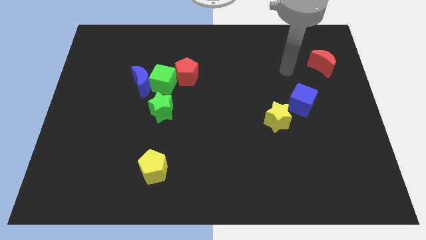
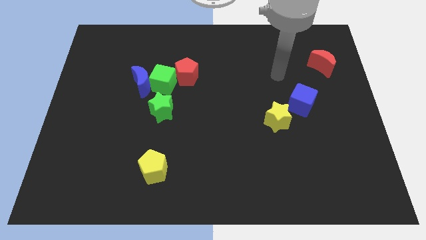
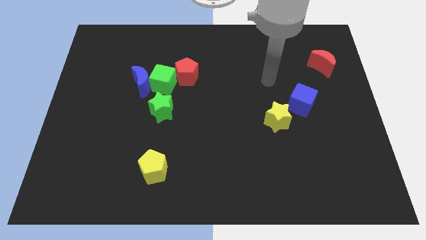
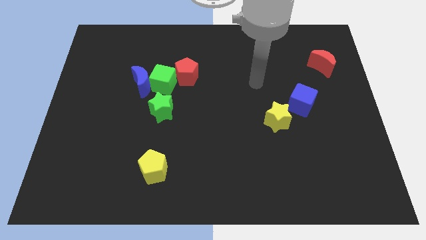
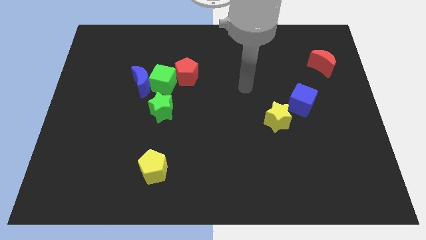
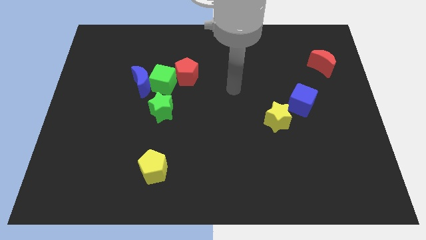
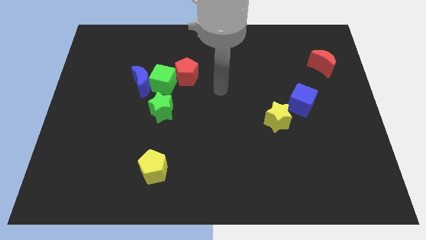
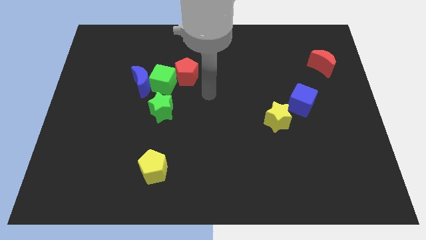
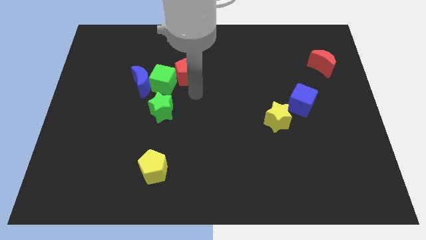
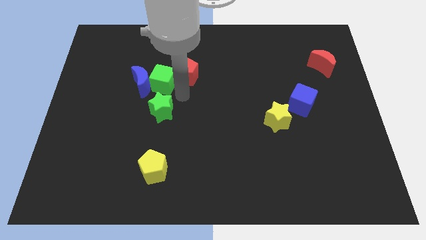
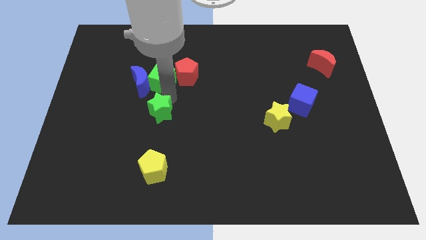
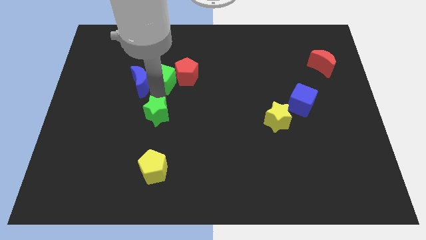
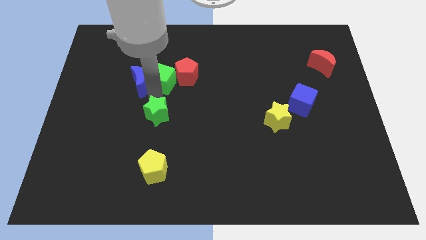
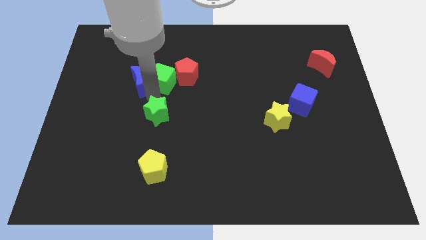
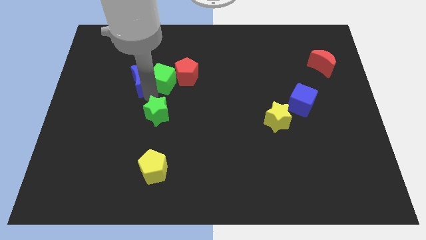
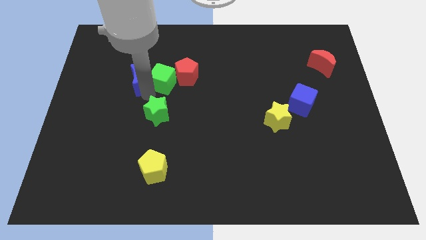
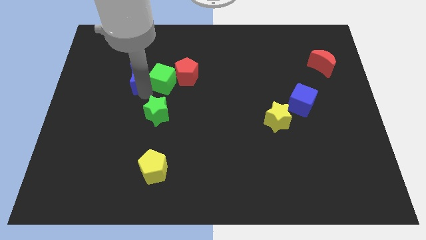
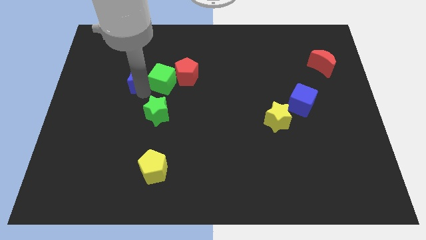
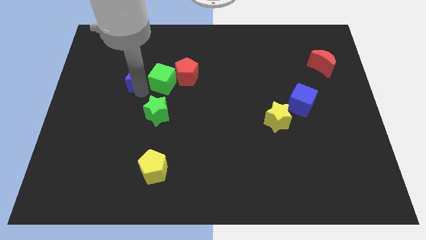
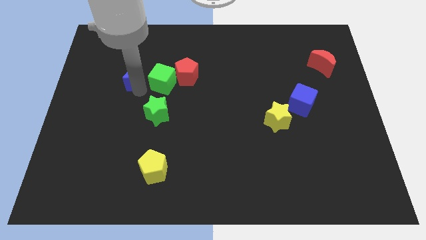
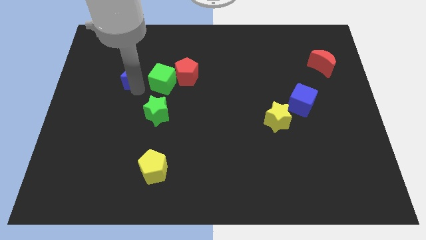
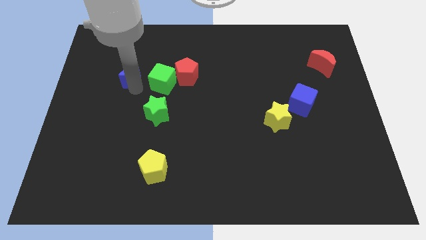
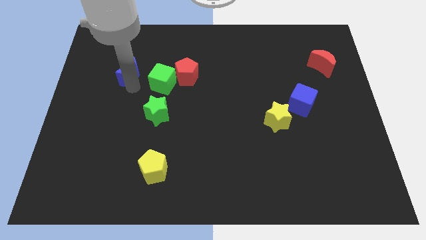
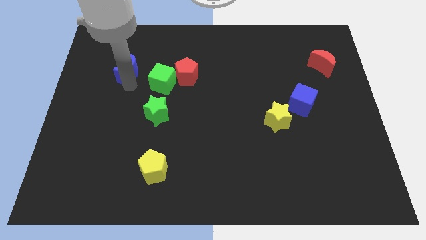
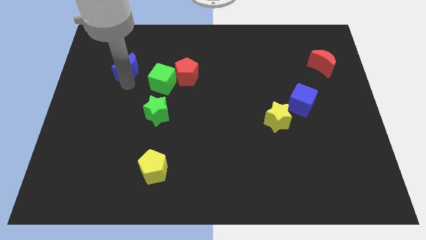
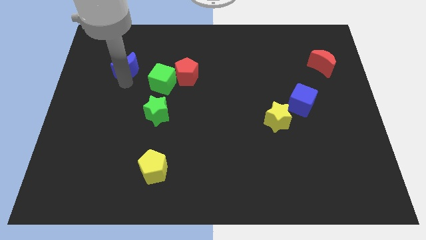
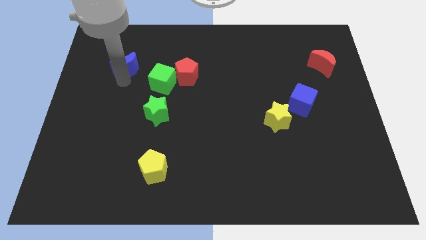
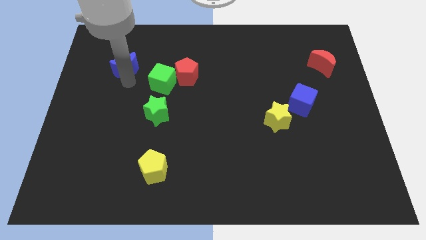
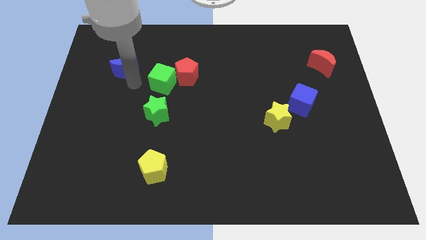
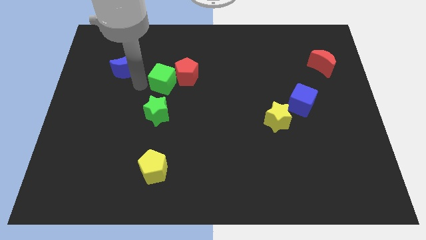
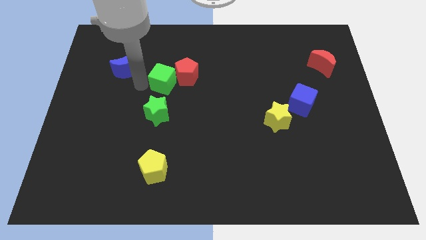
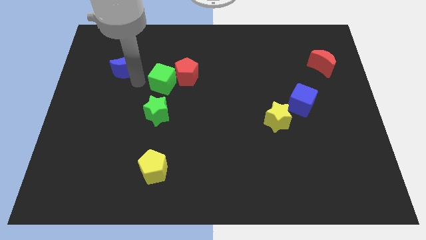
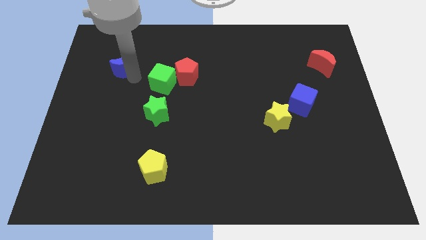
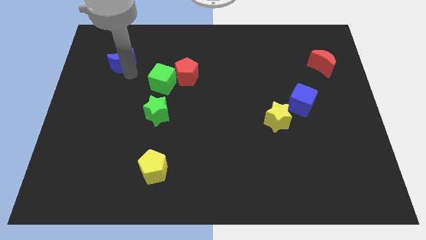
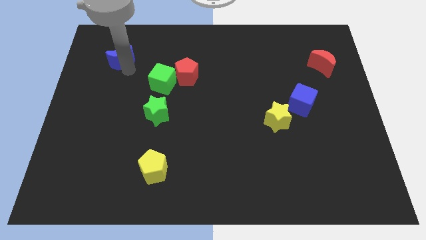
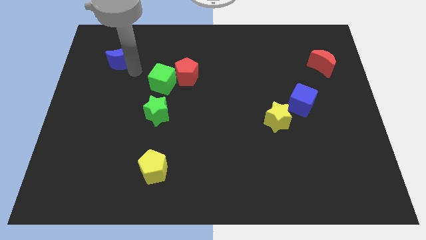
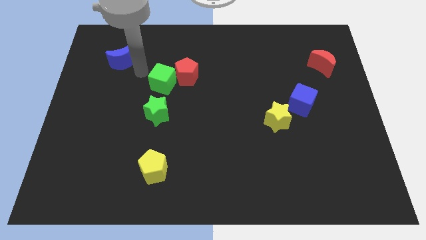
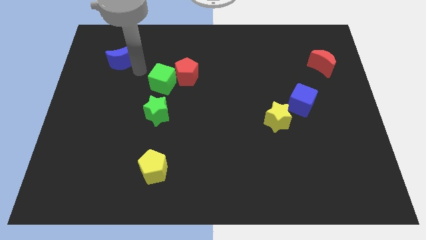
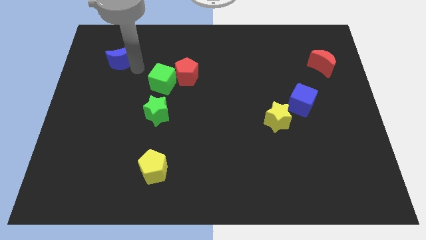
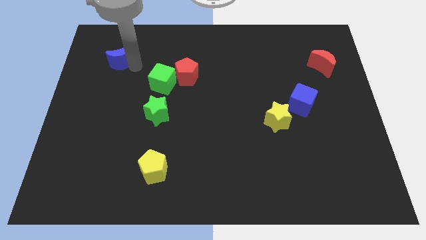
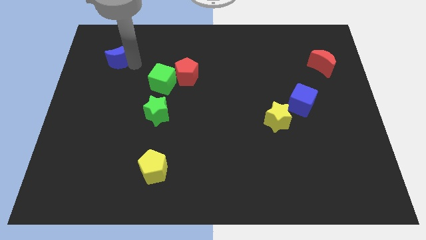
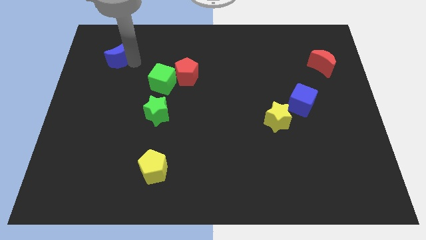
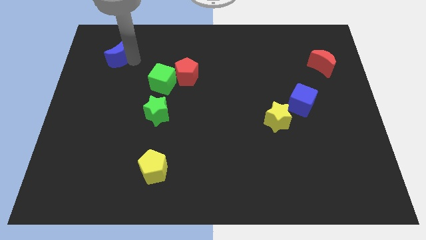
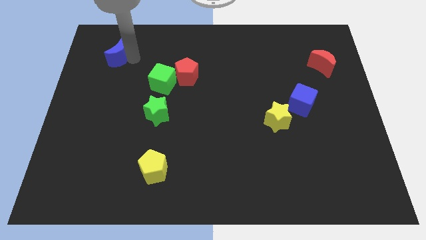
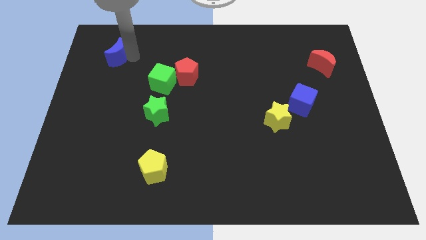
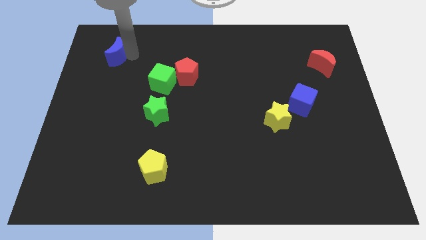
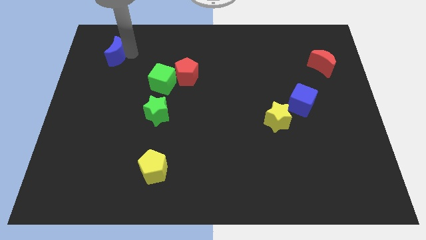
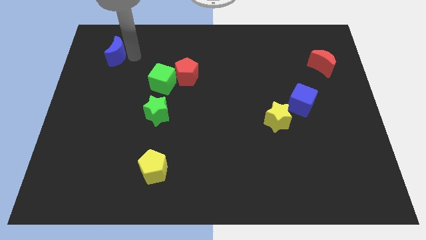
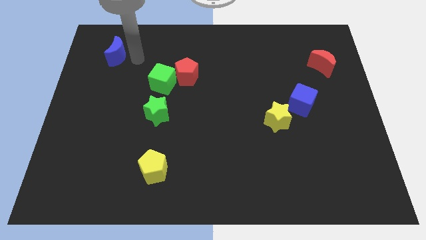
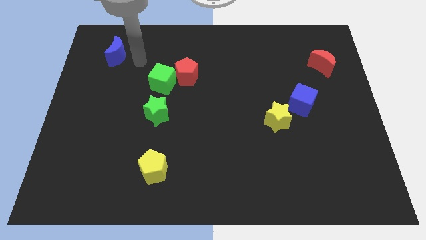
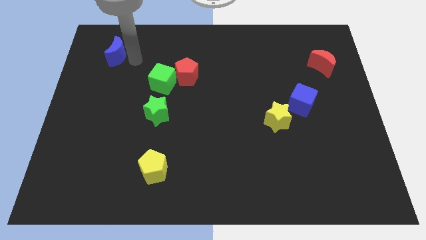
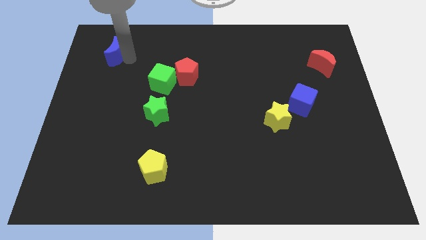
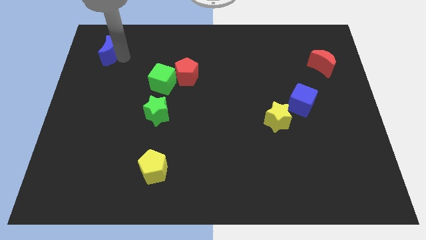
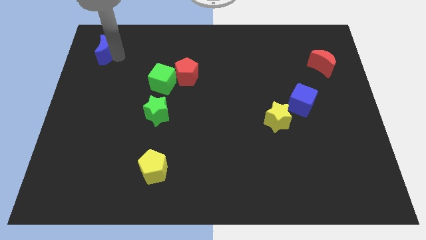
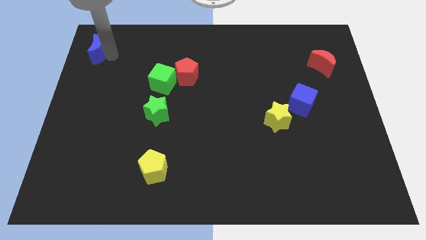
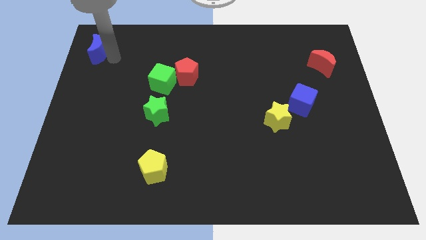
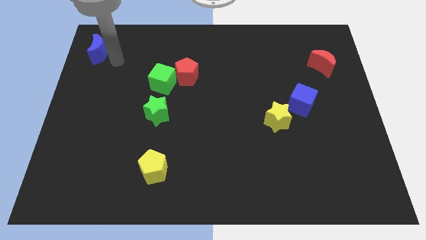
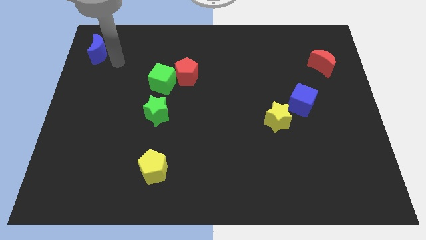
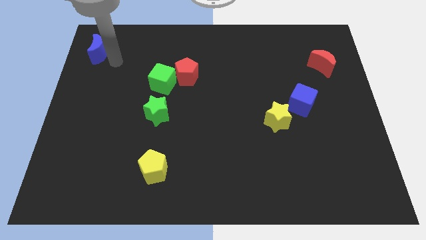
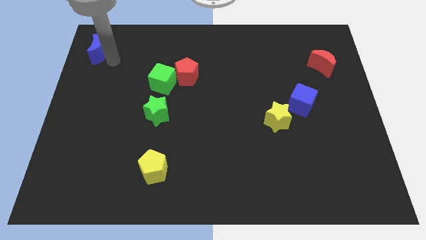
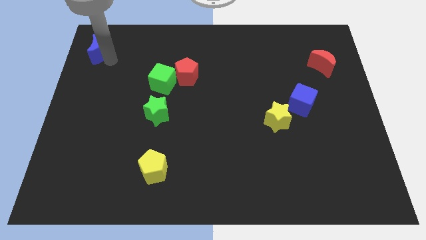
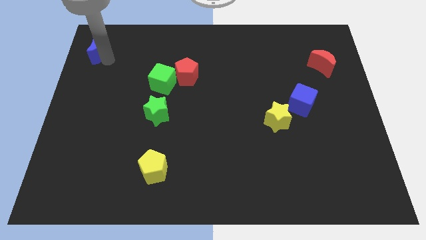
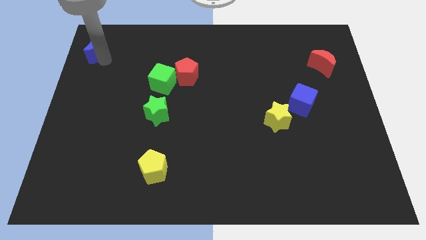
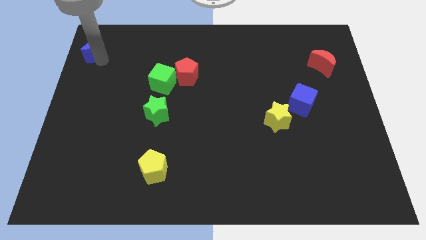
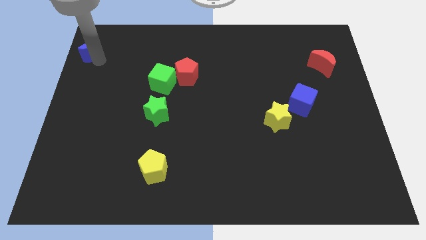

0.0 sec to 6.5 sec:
push the blue moon to the top left
